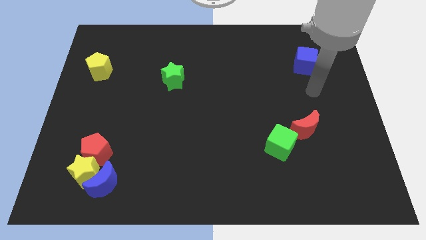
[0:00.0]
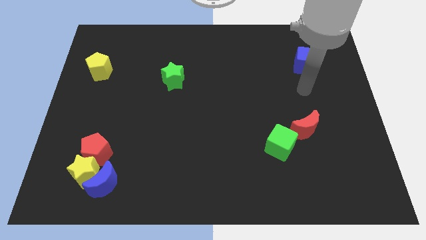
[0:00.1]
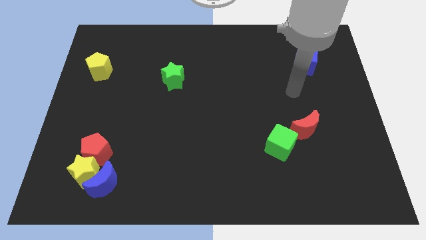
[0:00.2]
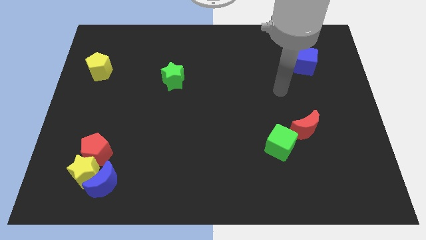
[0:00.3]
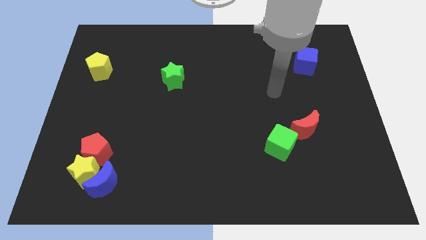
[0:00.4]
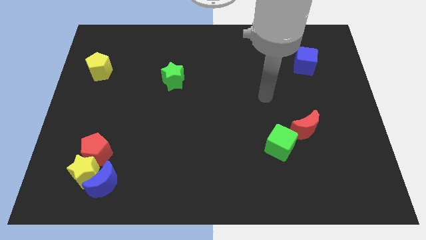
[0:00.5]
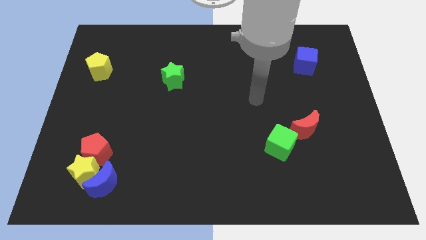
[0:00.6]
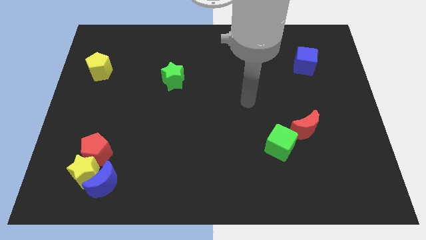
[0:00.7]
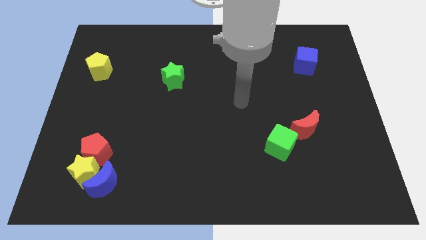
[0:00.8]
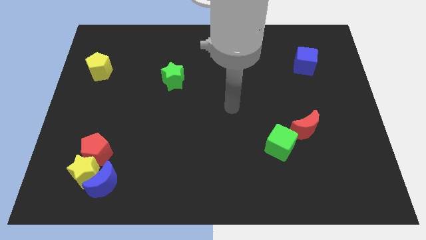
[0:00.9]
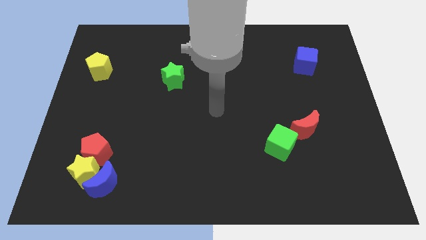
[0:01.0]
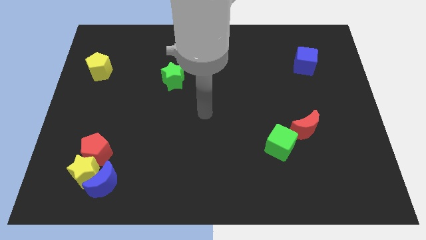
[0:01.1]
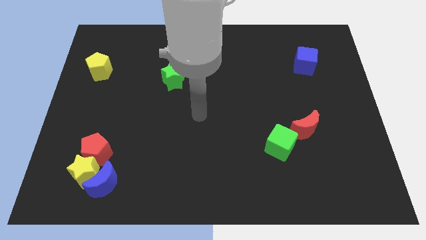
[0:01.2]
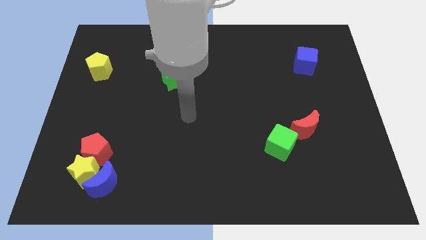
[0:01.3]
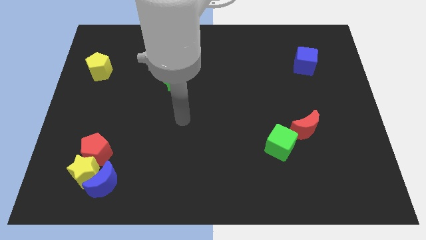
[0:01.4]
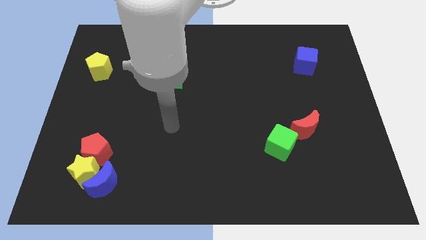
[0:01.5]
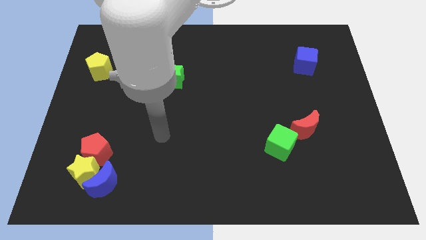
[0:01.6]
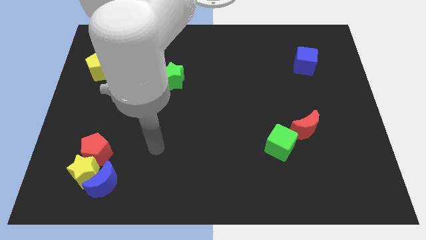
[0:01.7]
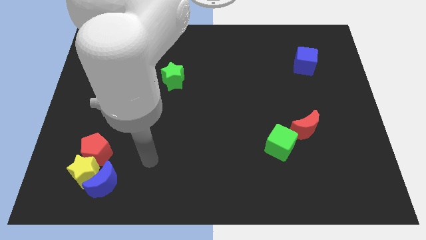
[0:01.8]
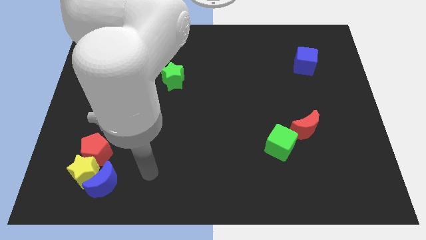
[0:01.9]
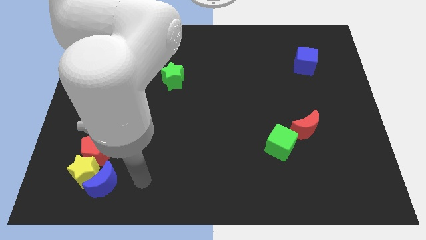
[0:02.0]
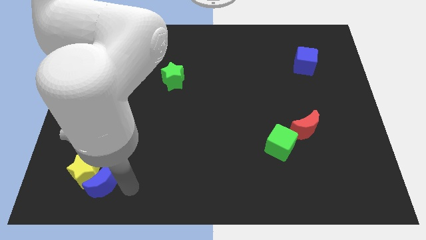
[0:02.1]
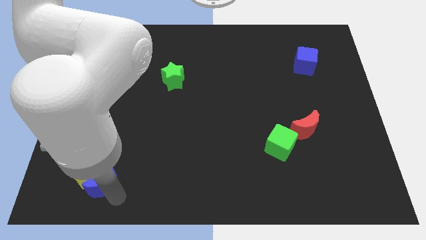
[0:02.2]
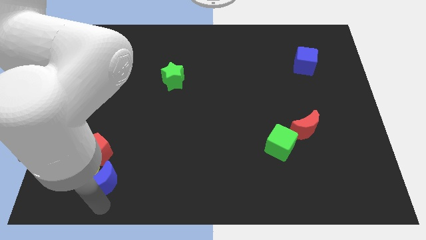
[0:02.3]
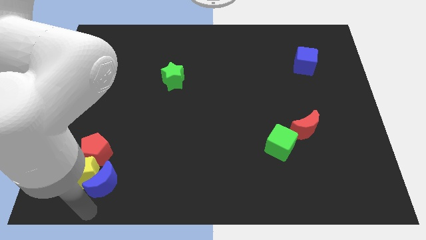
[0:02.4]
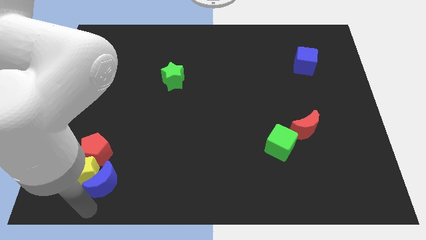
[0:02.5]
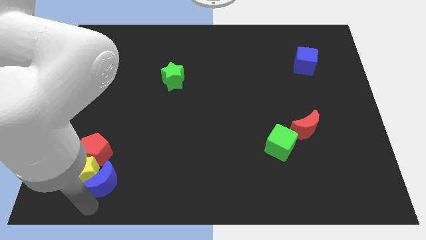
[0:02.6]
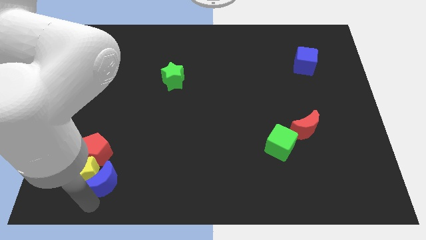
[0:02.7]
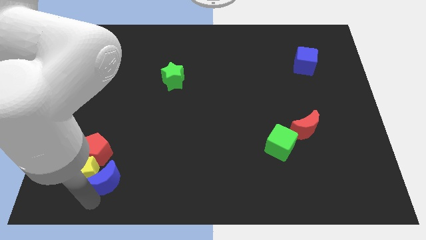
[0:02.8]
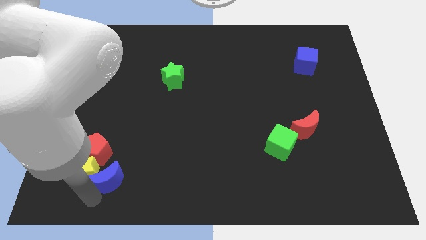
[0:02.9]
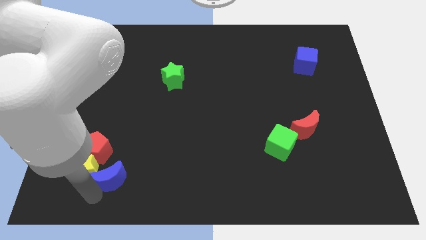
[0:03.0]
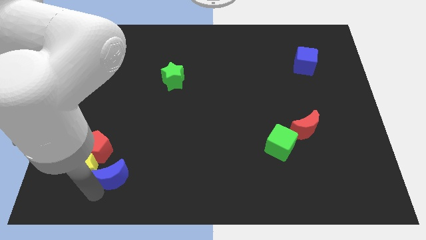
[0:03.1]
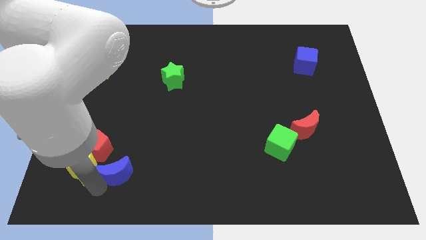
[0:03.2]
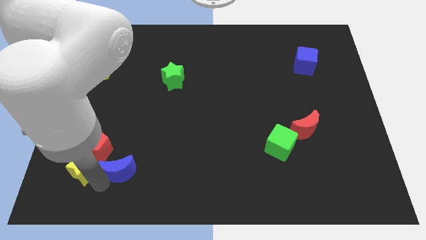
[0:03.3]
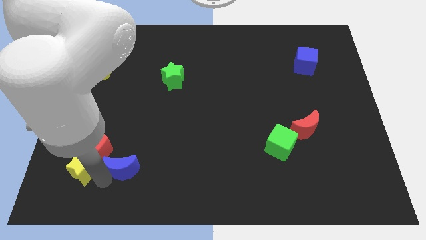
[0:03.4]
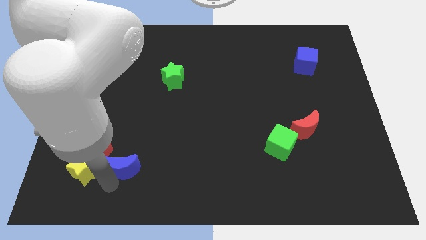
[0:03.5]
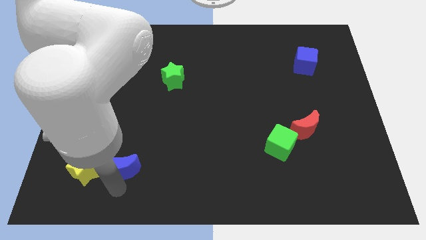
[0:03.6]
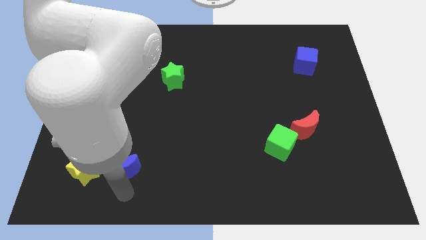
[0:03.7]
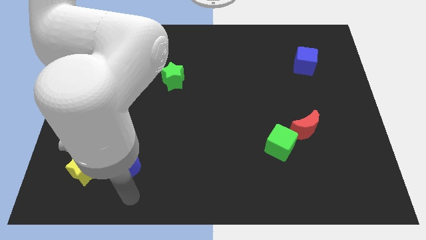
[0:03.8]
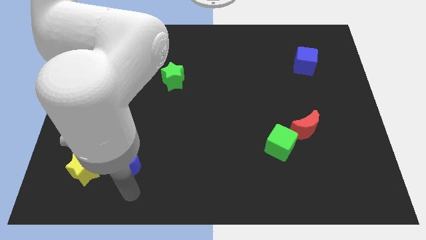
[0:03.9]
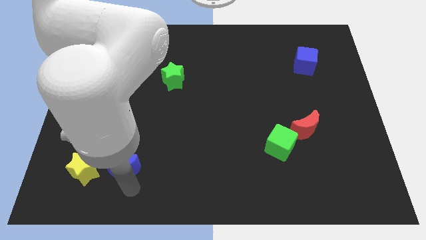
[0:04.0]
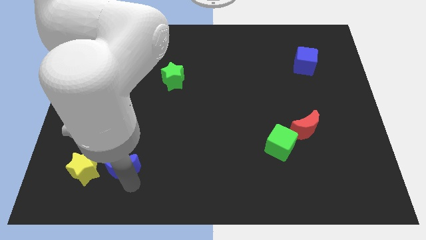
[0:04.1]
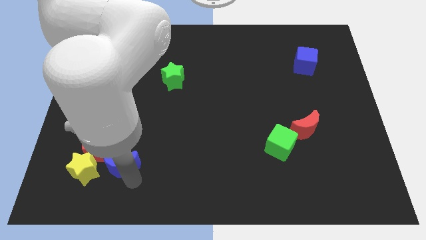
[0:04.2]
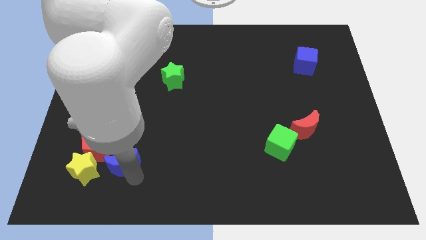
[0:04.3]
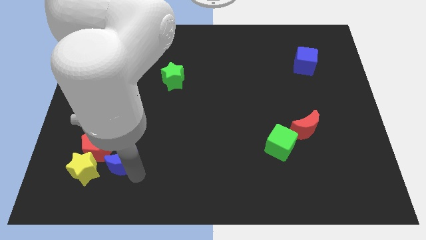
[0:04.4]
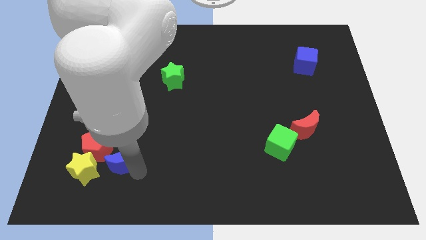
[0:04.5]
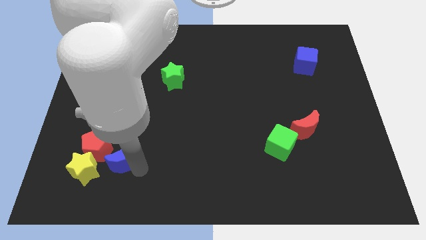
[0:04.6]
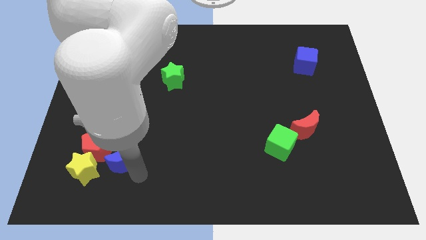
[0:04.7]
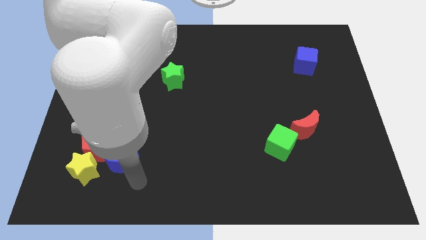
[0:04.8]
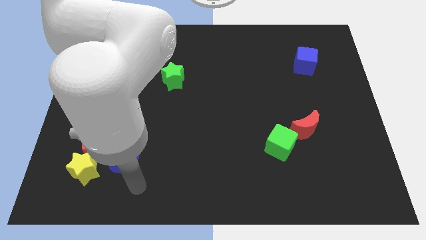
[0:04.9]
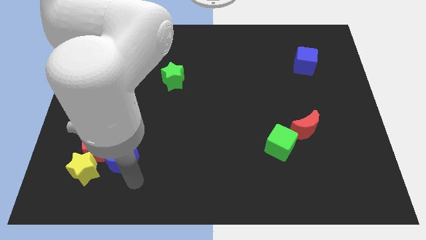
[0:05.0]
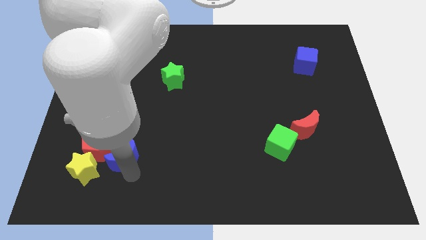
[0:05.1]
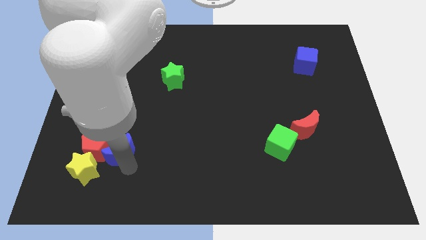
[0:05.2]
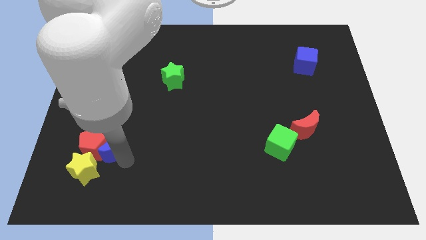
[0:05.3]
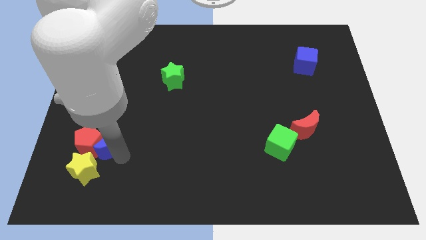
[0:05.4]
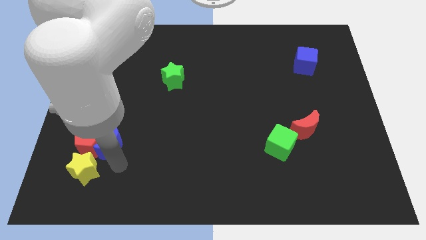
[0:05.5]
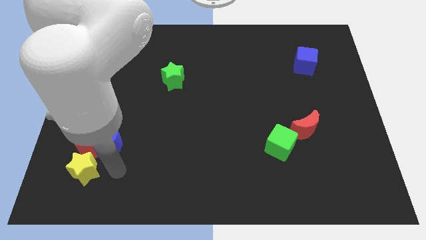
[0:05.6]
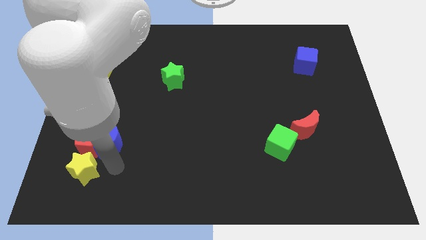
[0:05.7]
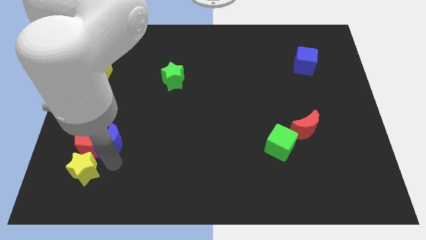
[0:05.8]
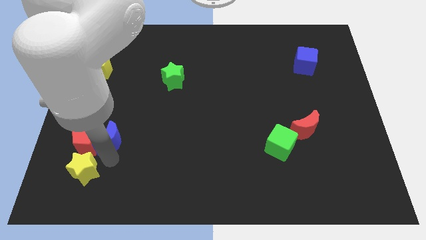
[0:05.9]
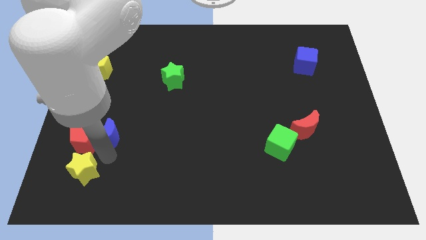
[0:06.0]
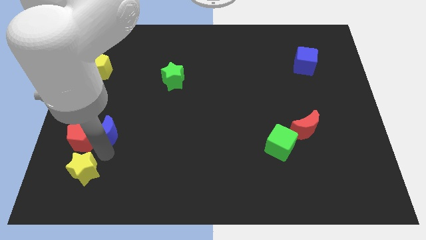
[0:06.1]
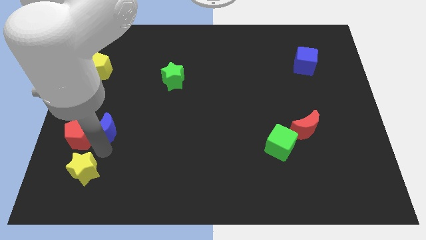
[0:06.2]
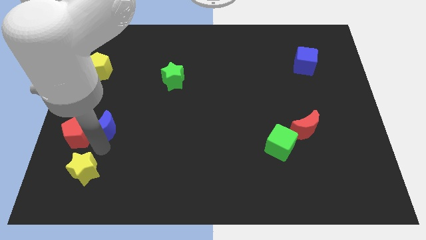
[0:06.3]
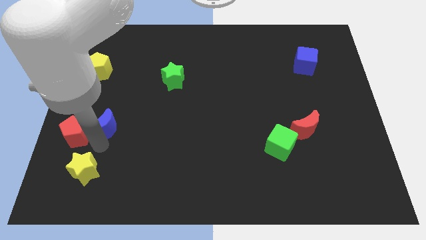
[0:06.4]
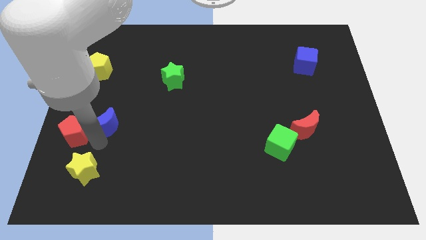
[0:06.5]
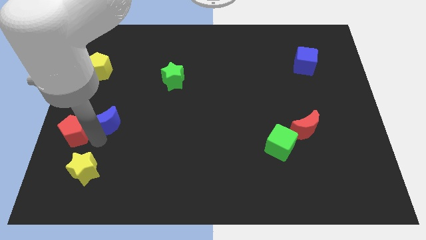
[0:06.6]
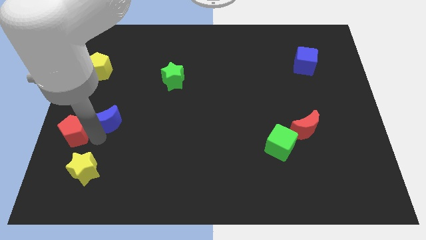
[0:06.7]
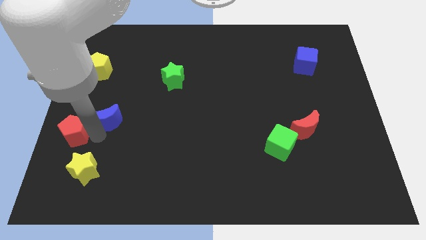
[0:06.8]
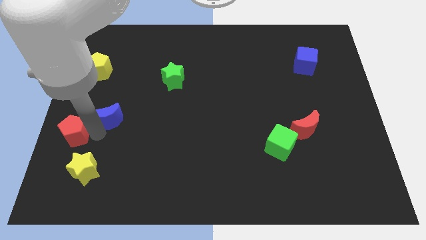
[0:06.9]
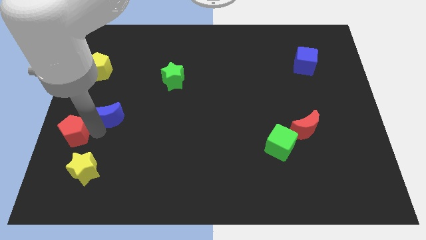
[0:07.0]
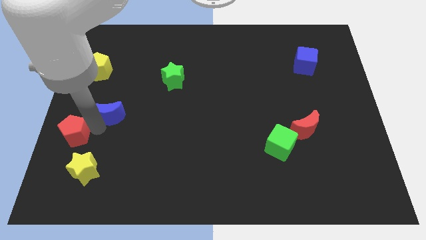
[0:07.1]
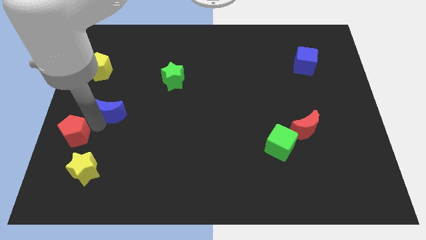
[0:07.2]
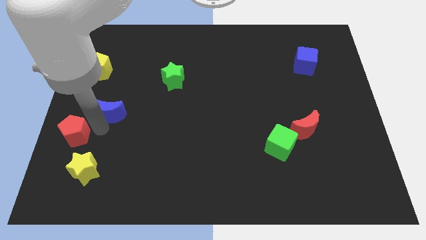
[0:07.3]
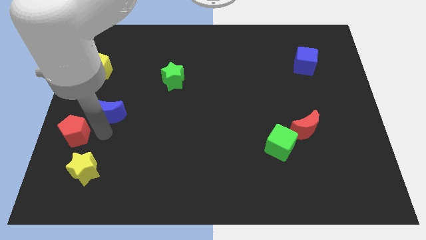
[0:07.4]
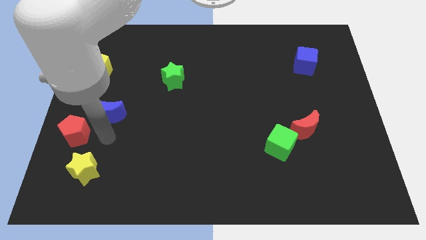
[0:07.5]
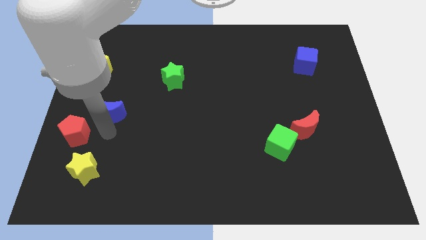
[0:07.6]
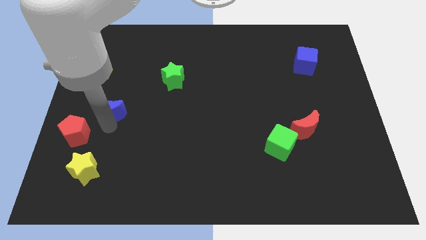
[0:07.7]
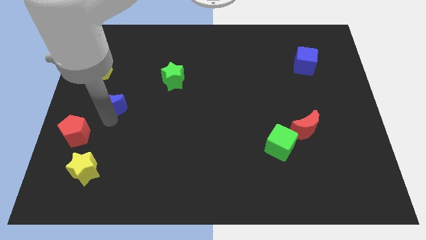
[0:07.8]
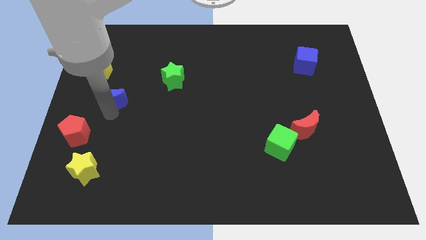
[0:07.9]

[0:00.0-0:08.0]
slide the blue moon upwards

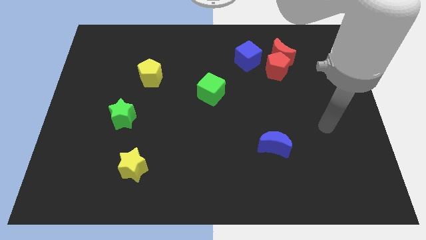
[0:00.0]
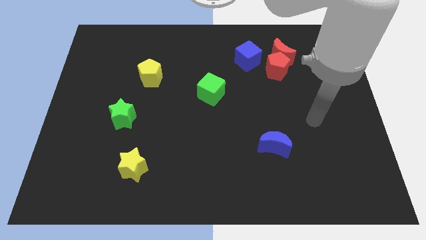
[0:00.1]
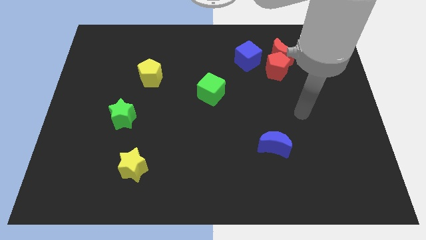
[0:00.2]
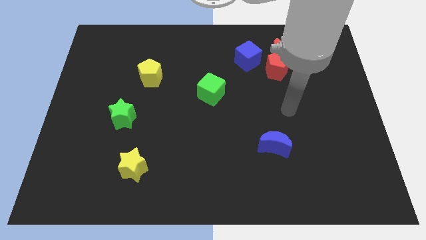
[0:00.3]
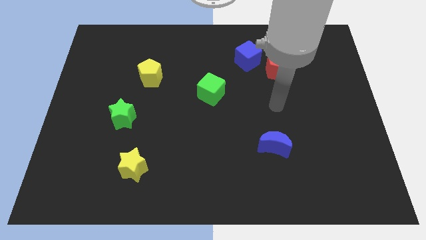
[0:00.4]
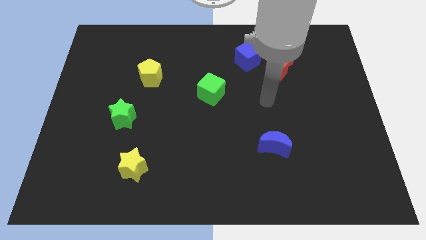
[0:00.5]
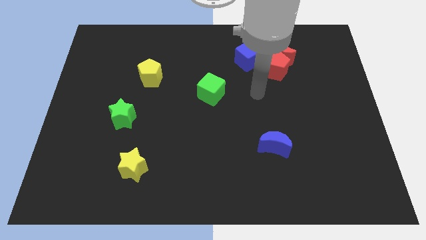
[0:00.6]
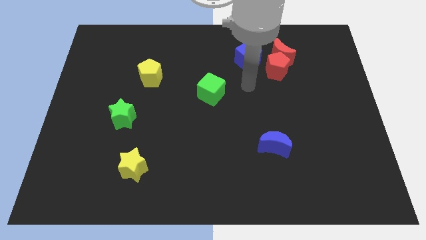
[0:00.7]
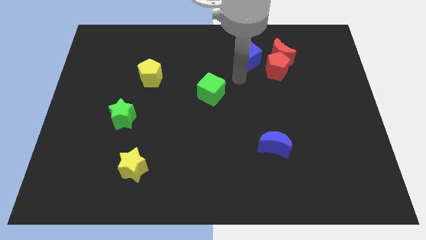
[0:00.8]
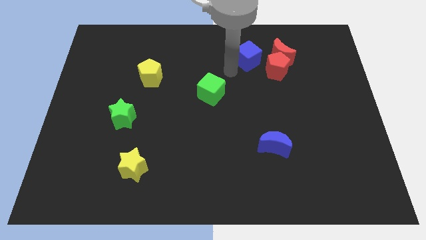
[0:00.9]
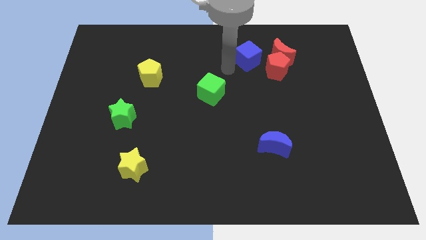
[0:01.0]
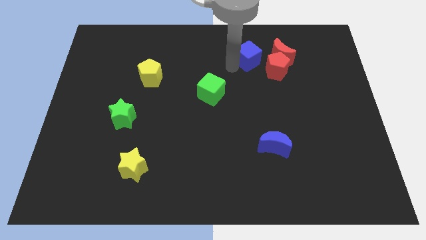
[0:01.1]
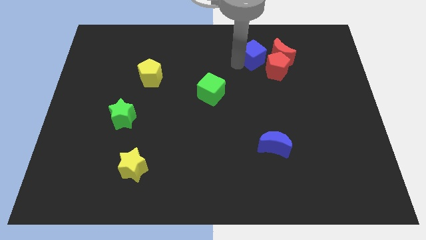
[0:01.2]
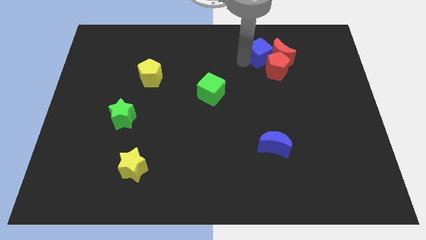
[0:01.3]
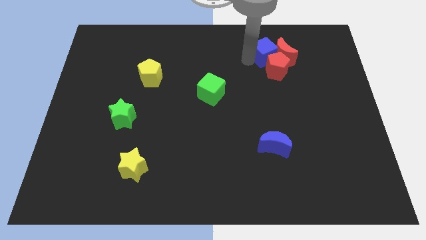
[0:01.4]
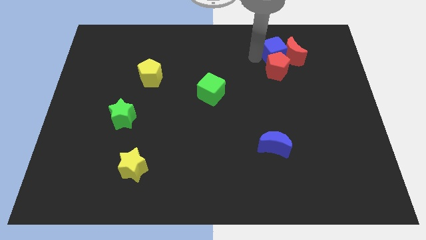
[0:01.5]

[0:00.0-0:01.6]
slightly push the blue cube to the right
